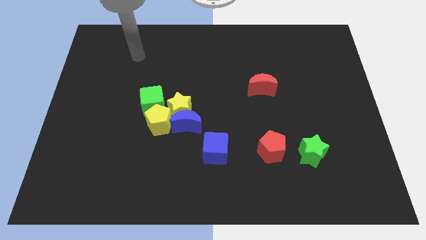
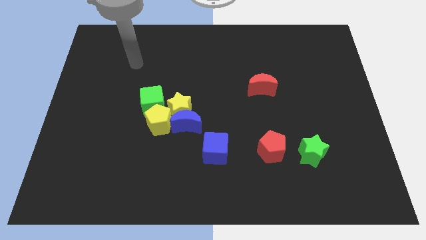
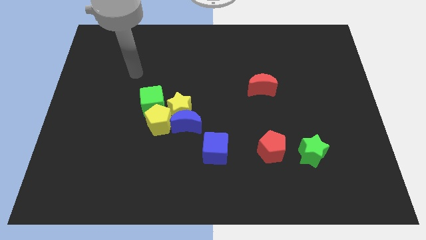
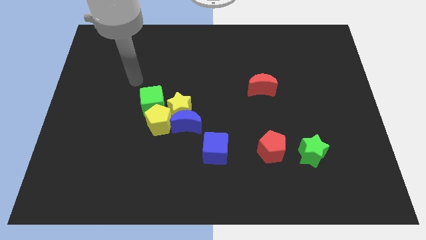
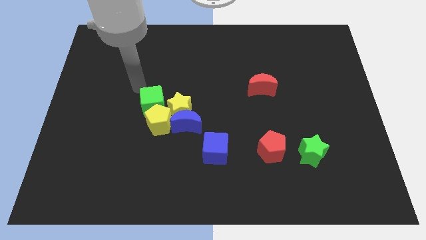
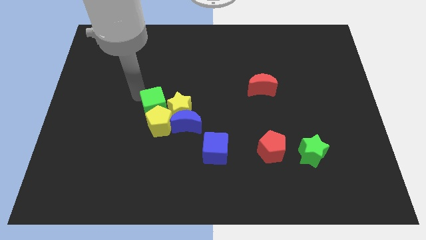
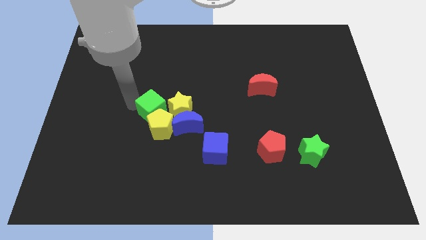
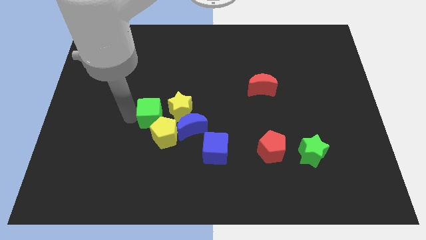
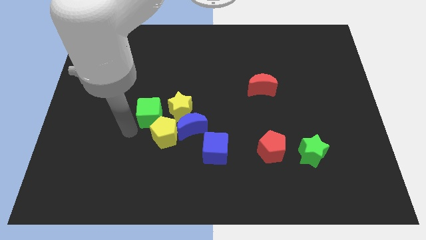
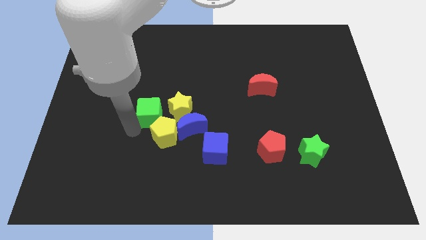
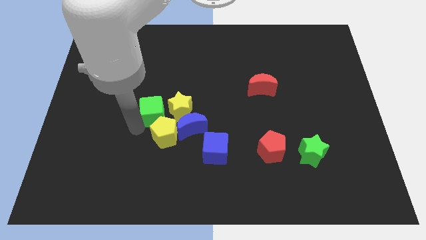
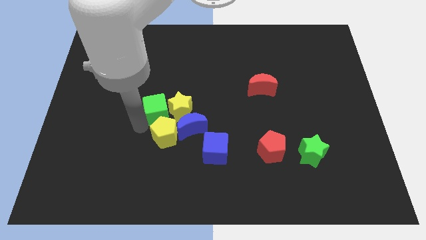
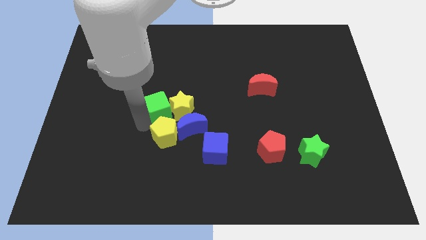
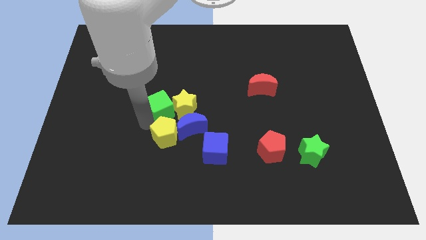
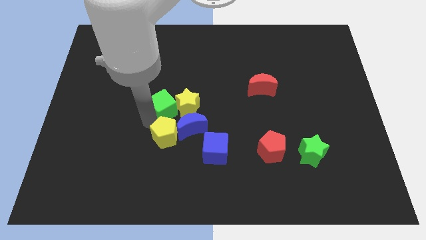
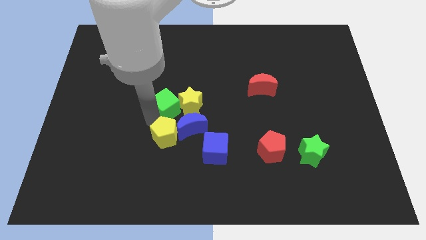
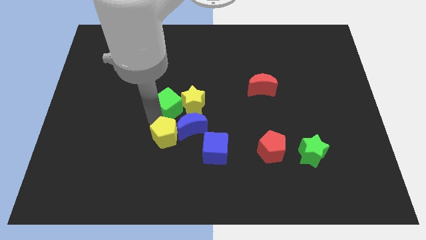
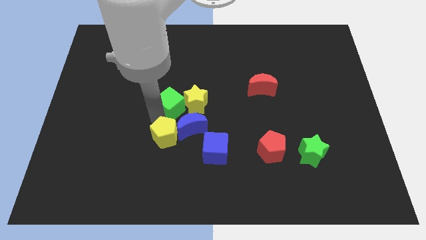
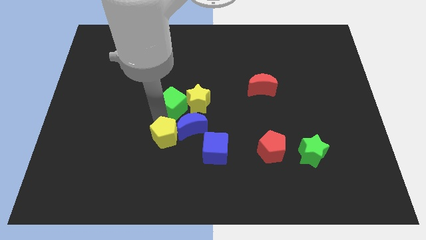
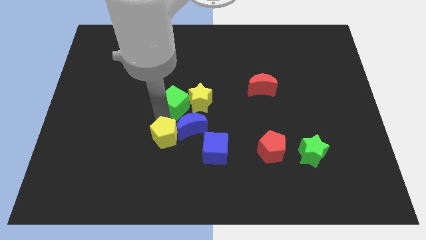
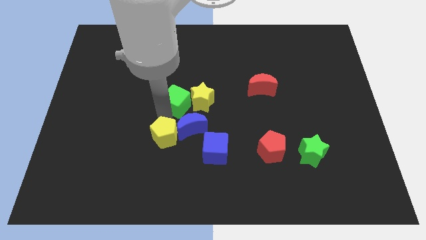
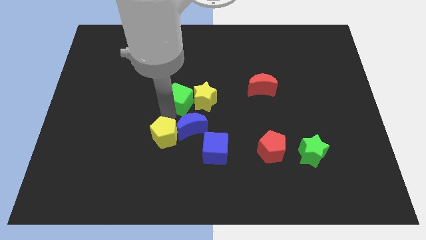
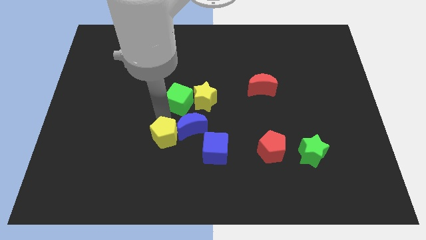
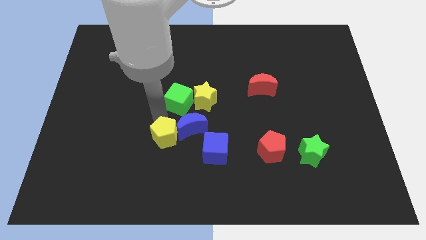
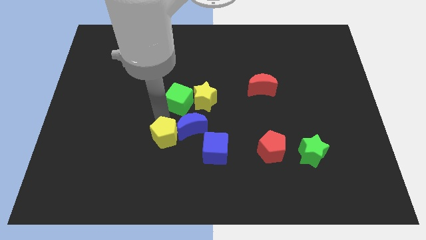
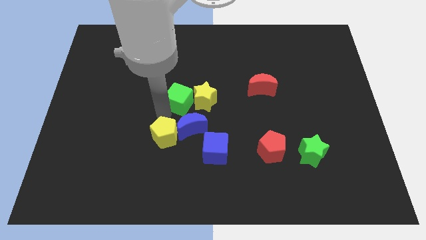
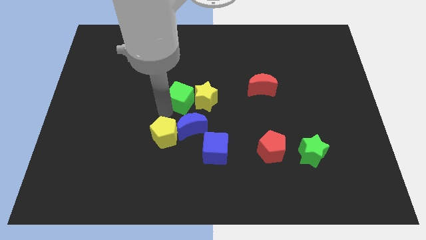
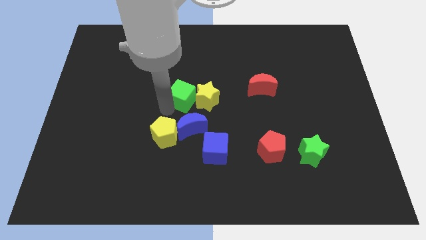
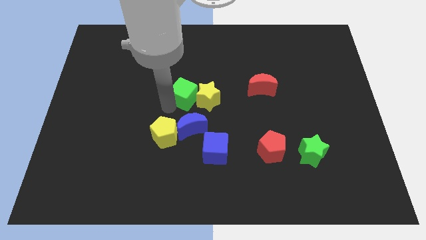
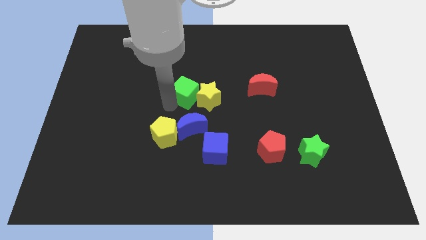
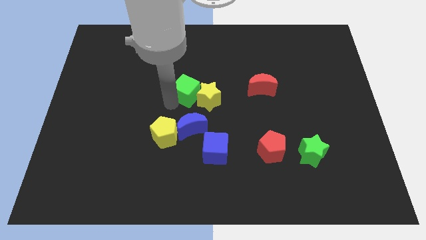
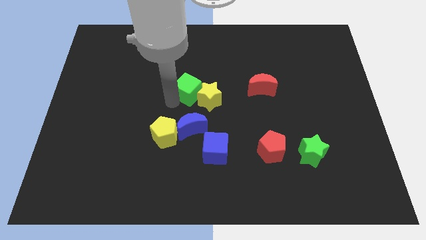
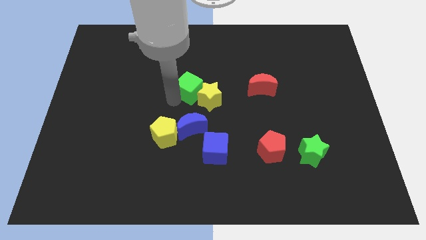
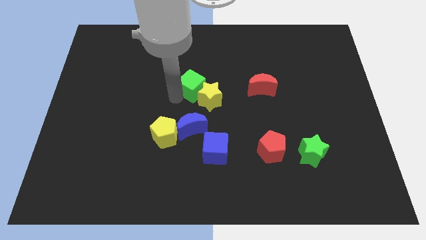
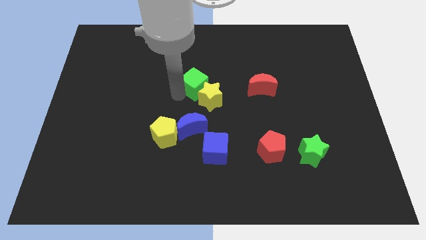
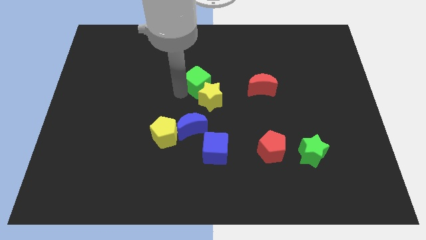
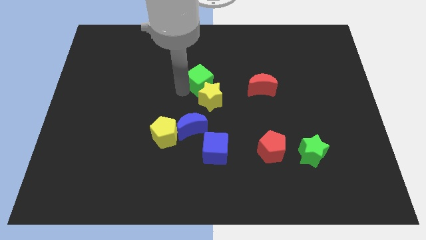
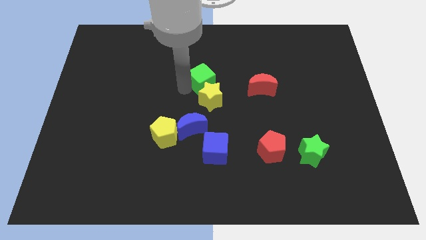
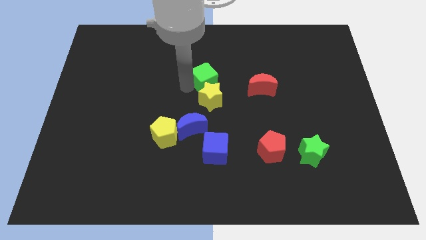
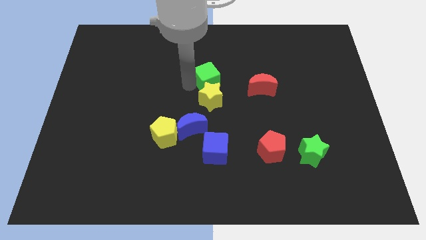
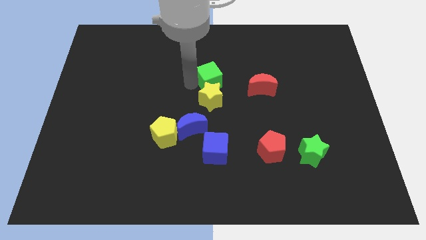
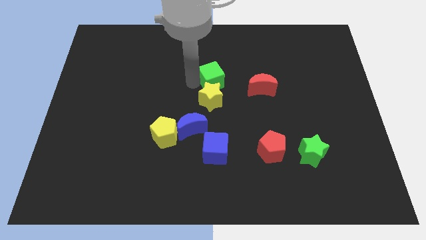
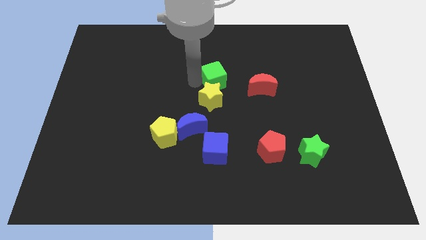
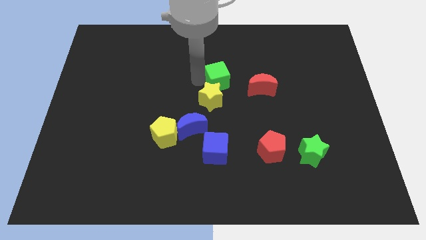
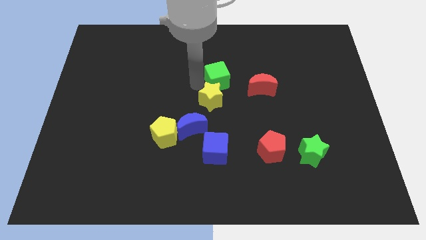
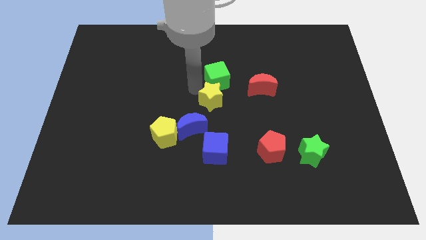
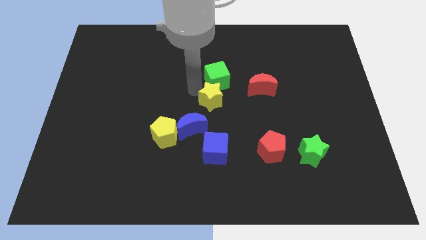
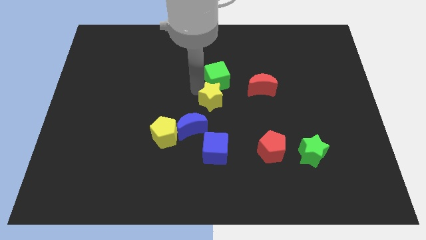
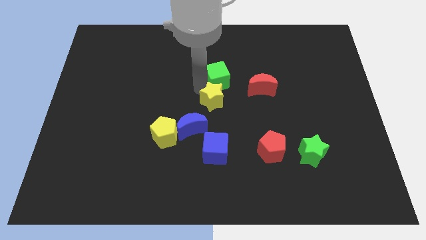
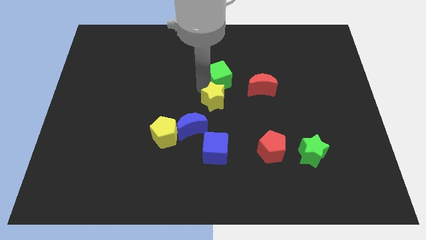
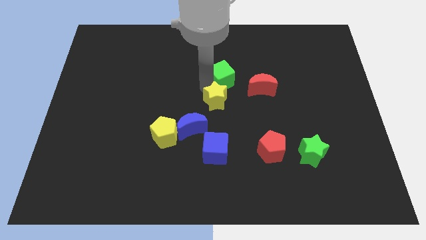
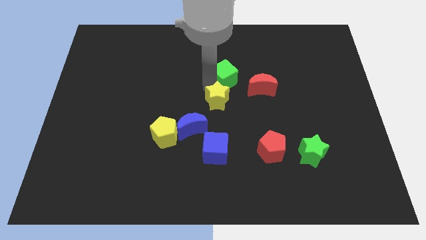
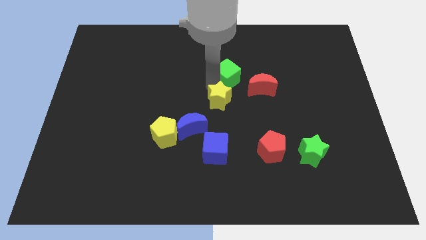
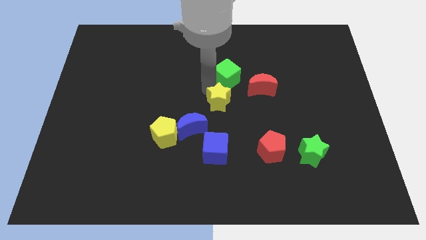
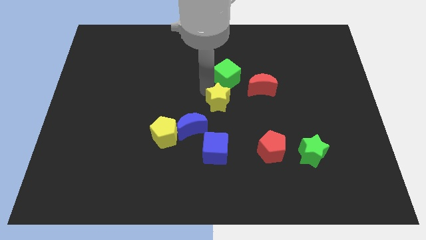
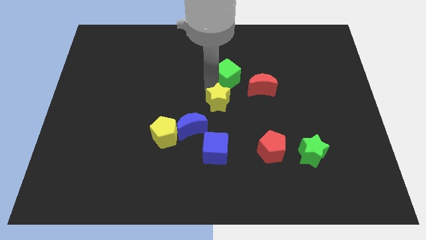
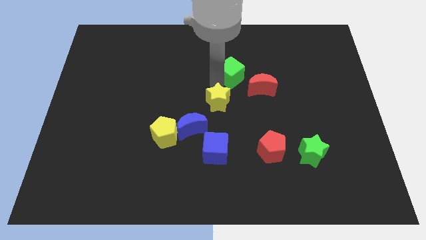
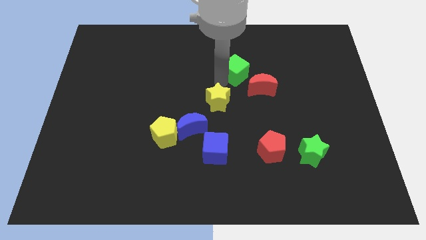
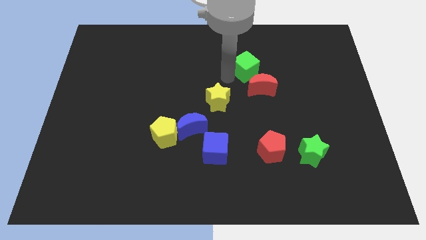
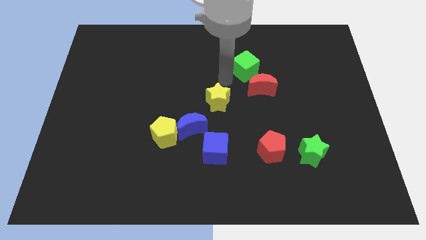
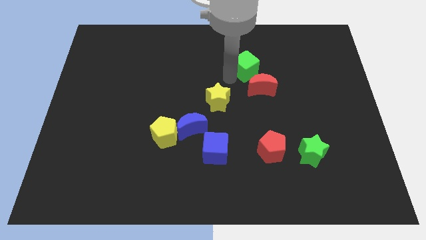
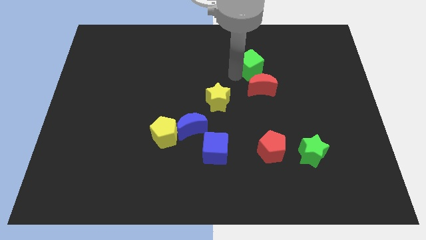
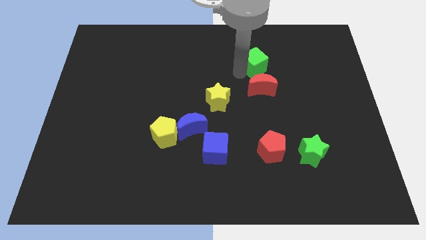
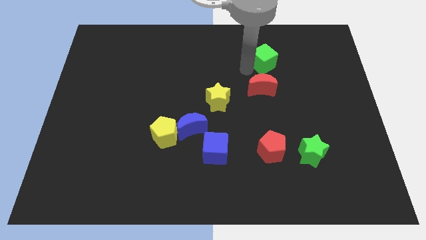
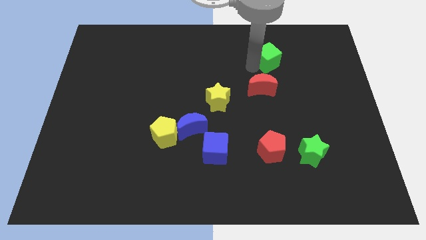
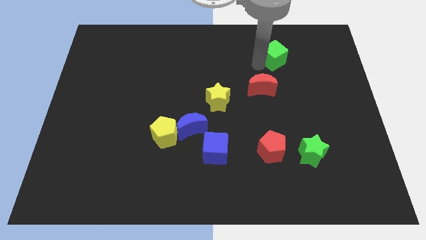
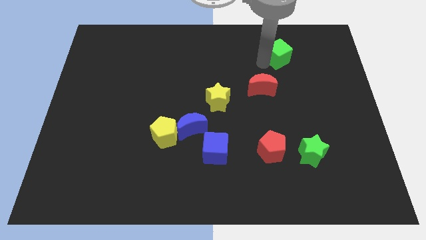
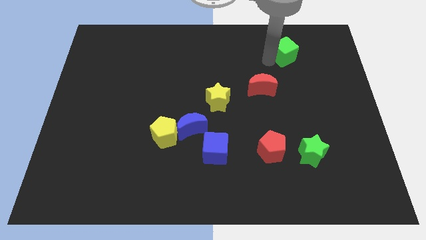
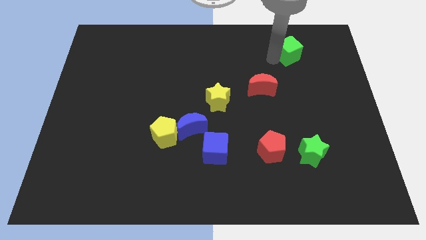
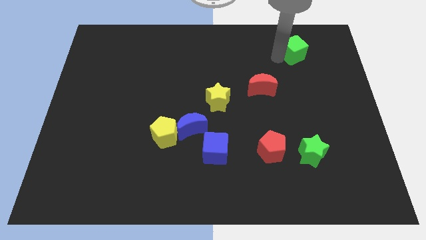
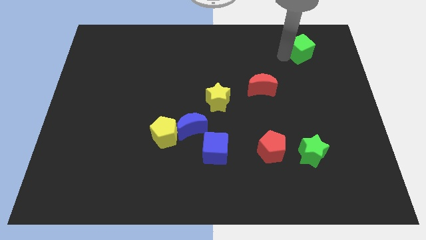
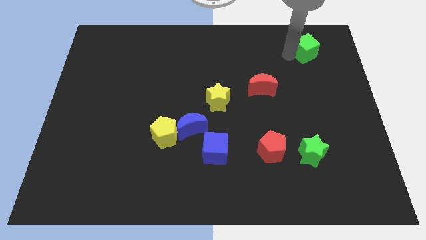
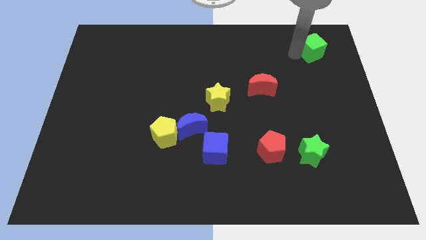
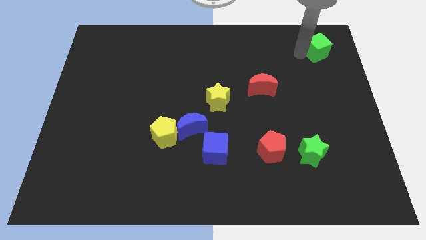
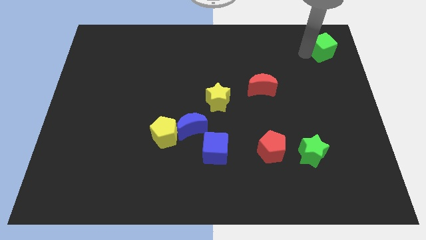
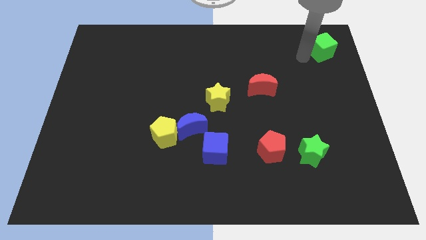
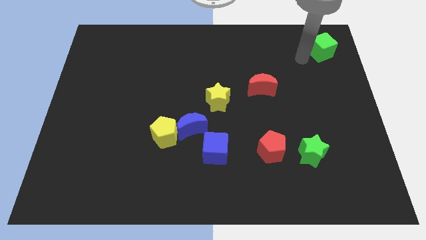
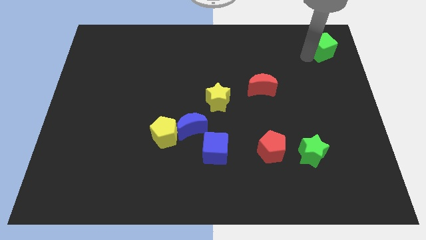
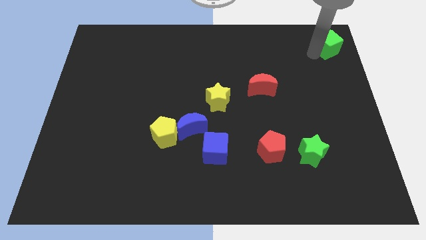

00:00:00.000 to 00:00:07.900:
slide the green cube to the upper right corner
